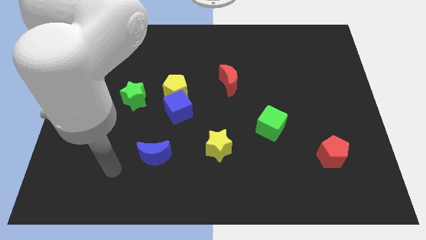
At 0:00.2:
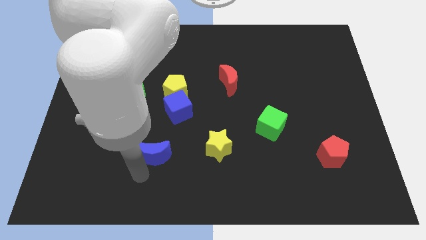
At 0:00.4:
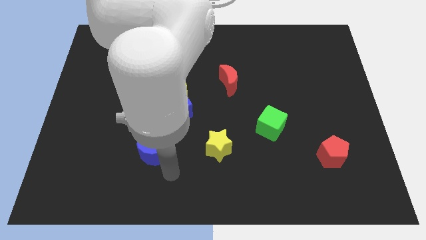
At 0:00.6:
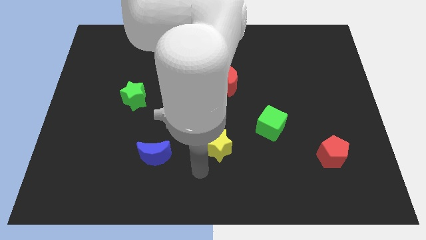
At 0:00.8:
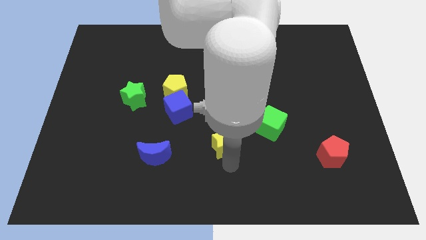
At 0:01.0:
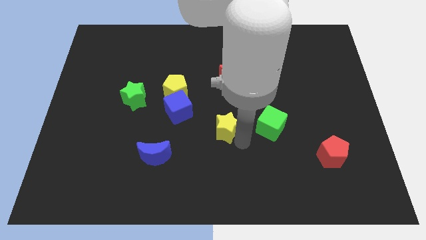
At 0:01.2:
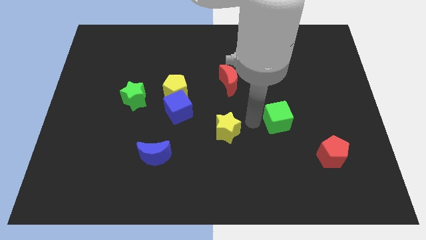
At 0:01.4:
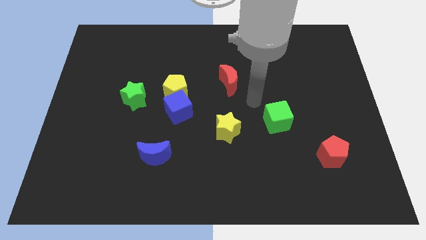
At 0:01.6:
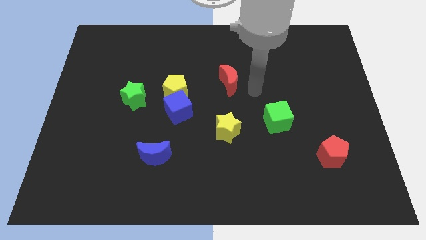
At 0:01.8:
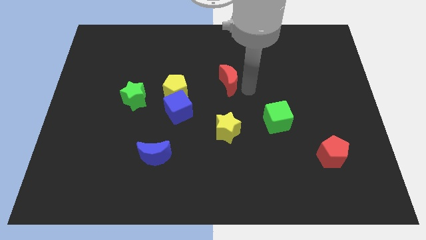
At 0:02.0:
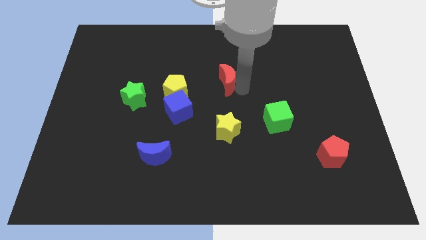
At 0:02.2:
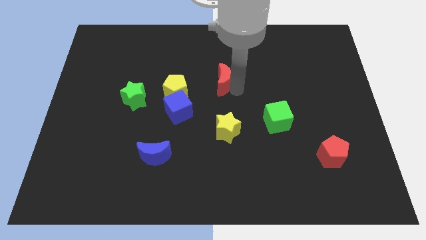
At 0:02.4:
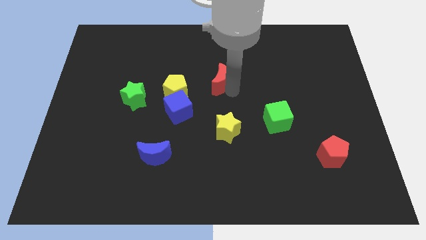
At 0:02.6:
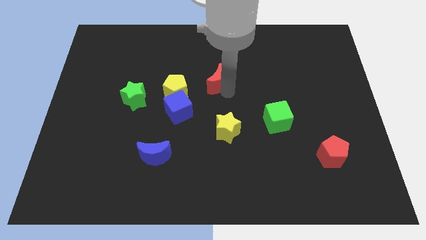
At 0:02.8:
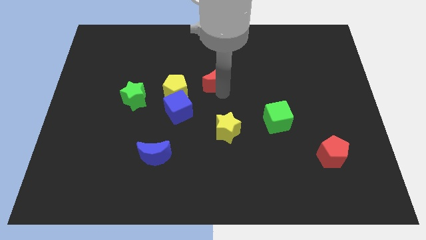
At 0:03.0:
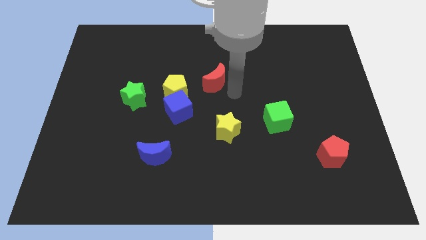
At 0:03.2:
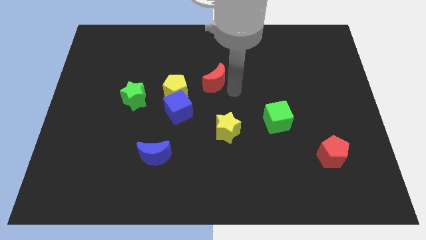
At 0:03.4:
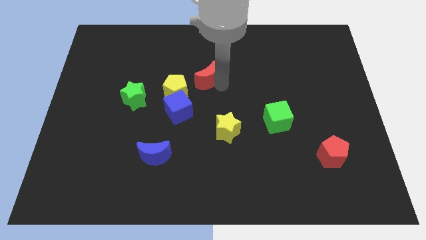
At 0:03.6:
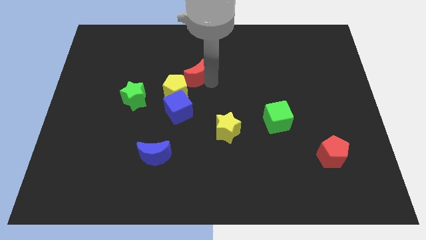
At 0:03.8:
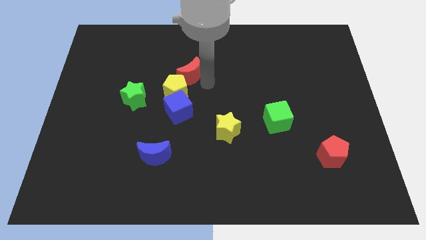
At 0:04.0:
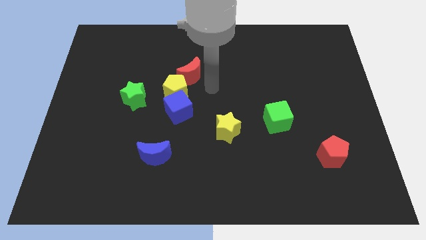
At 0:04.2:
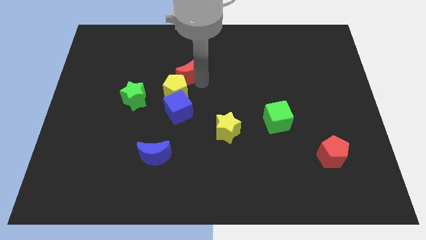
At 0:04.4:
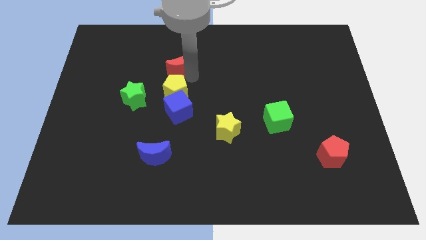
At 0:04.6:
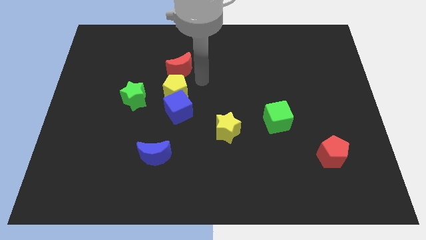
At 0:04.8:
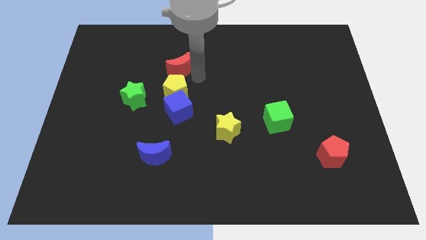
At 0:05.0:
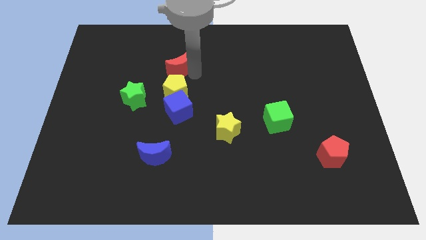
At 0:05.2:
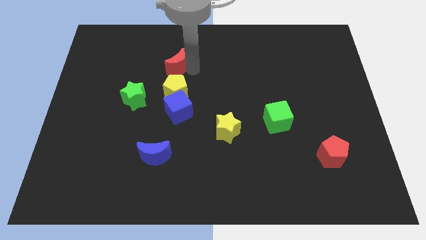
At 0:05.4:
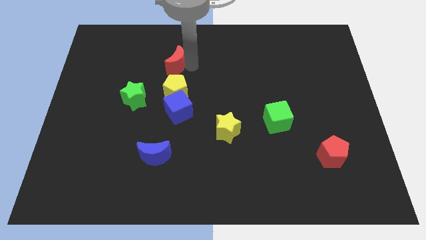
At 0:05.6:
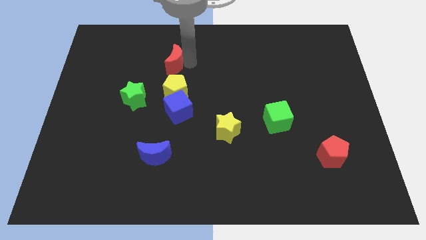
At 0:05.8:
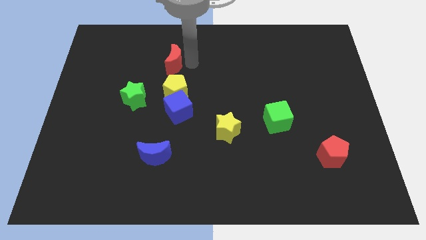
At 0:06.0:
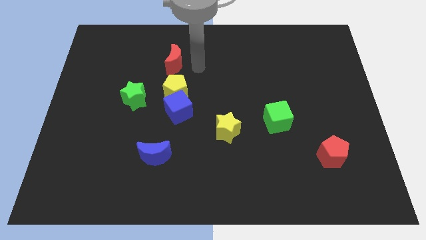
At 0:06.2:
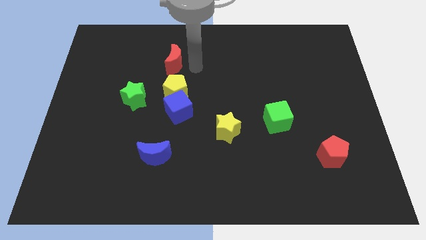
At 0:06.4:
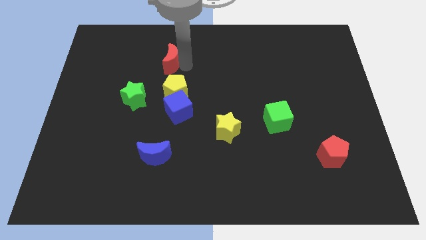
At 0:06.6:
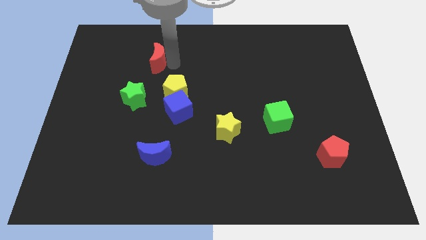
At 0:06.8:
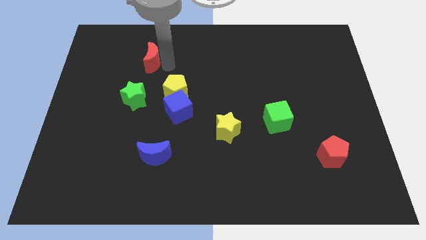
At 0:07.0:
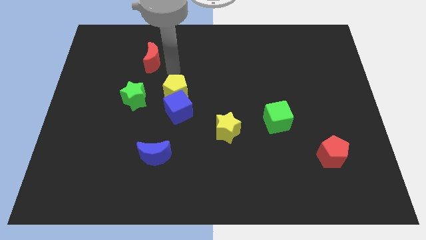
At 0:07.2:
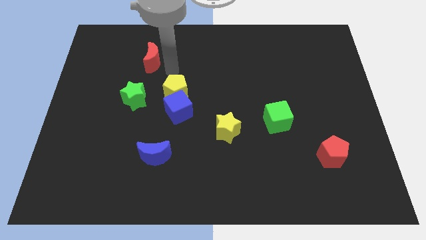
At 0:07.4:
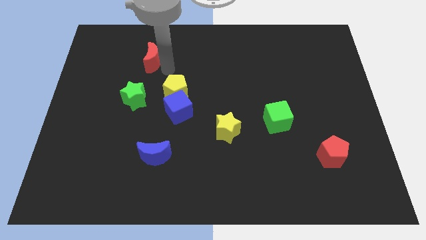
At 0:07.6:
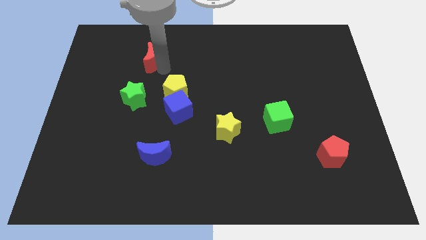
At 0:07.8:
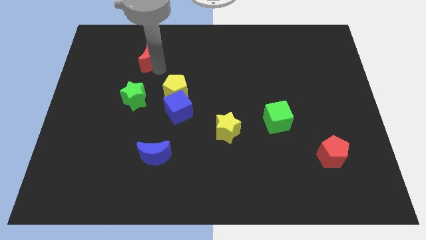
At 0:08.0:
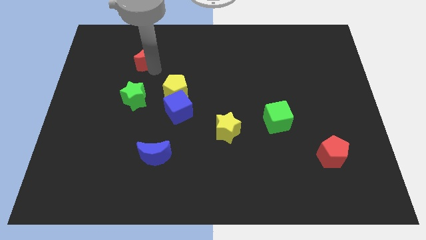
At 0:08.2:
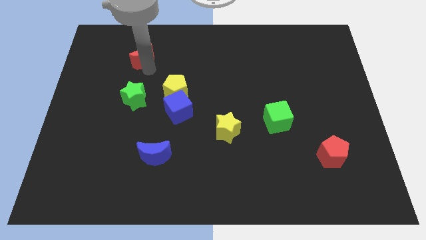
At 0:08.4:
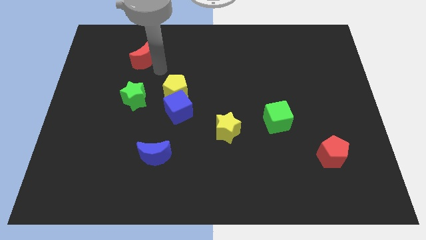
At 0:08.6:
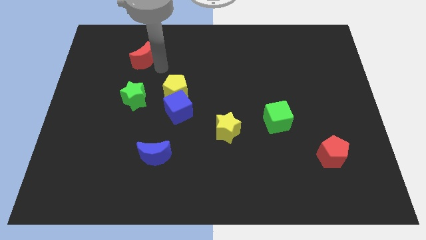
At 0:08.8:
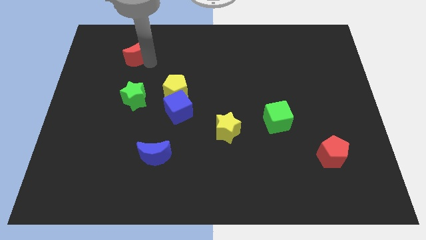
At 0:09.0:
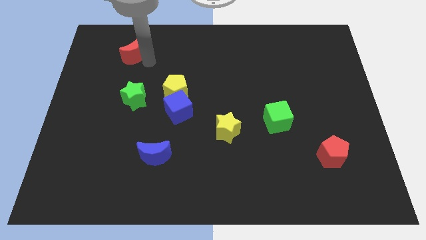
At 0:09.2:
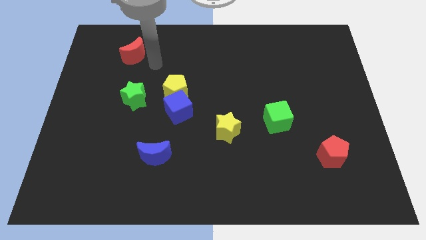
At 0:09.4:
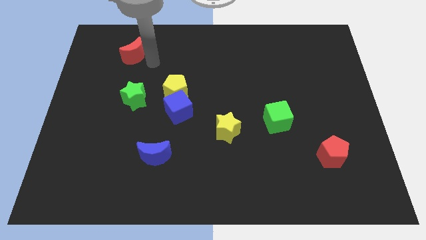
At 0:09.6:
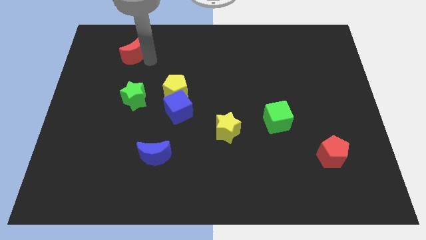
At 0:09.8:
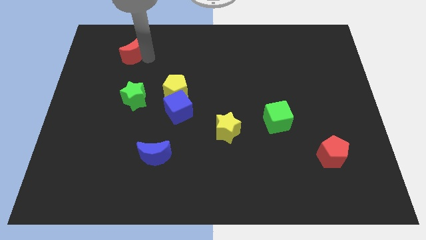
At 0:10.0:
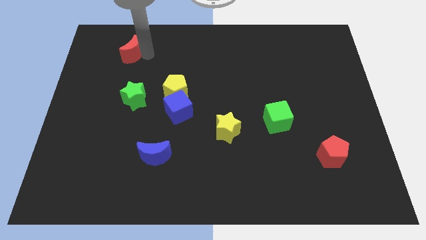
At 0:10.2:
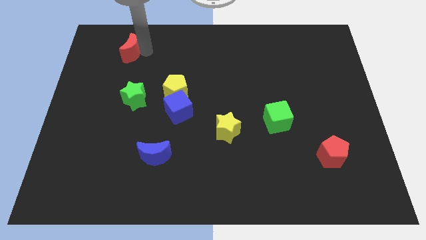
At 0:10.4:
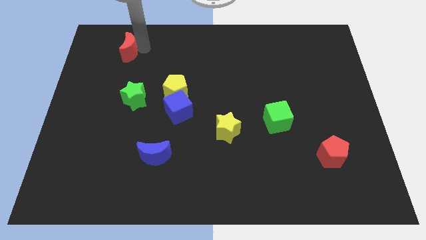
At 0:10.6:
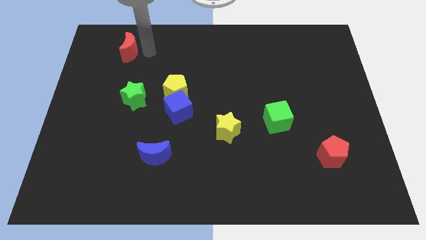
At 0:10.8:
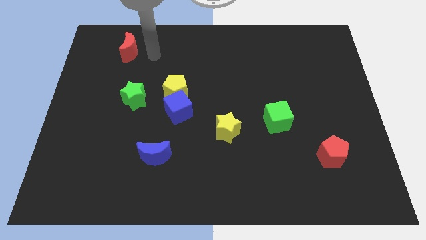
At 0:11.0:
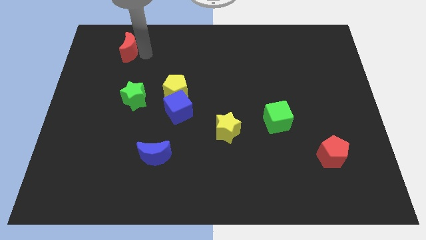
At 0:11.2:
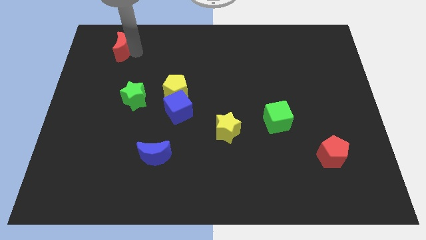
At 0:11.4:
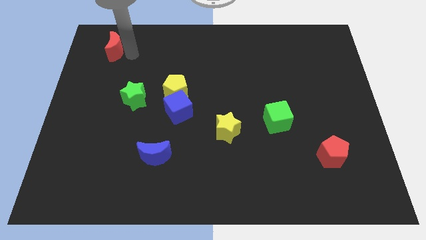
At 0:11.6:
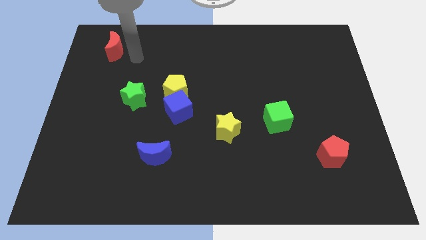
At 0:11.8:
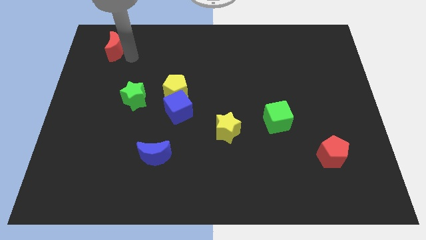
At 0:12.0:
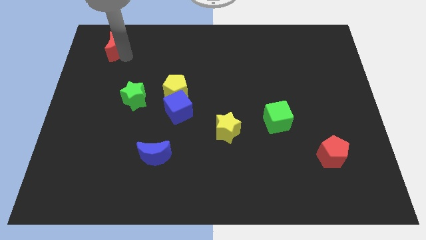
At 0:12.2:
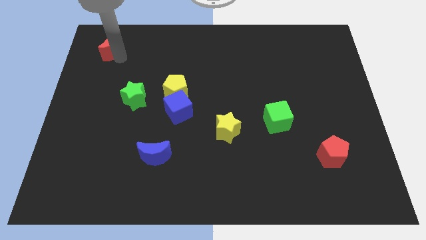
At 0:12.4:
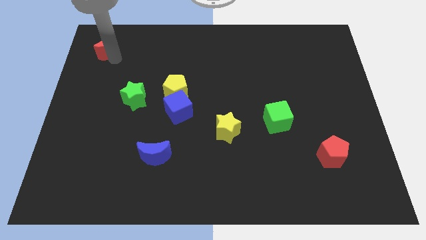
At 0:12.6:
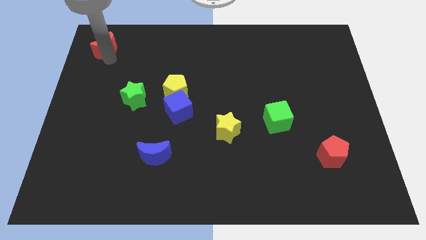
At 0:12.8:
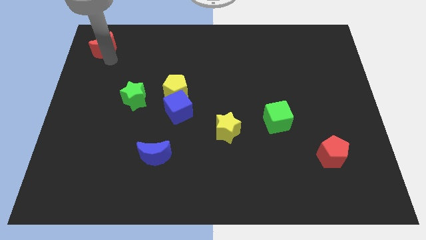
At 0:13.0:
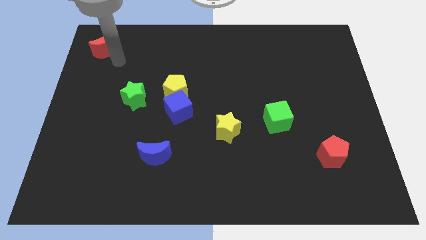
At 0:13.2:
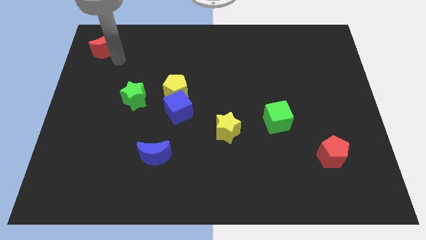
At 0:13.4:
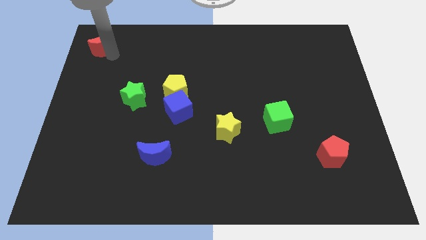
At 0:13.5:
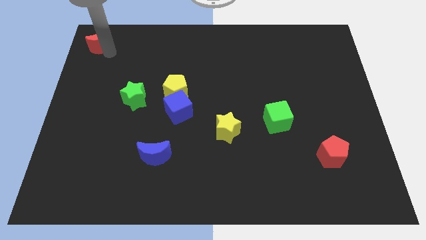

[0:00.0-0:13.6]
slide the red moon to the upper left corner

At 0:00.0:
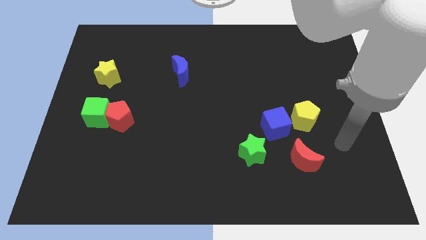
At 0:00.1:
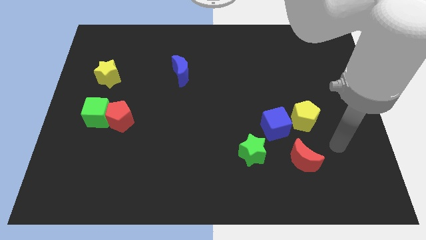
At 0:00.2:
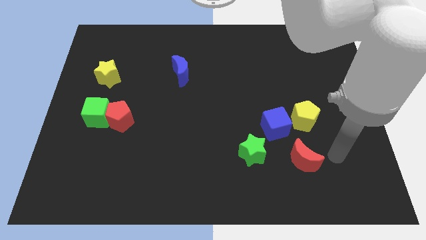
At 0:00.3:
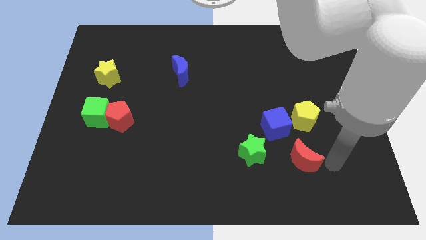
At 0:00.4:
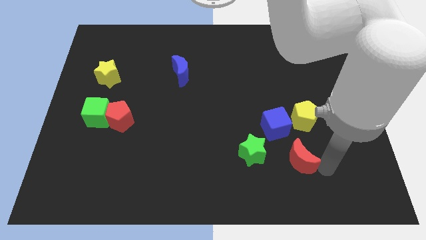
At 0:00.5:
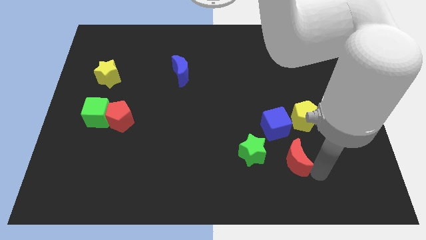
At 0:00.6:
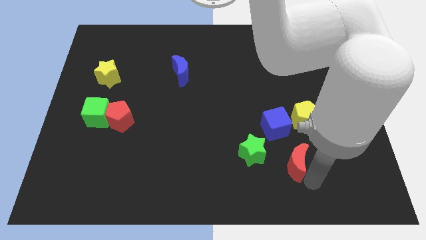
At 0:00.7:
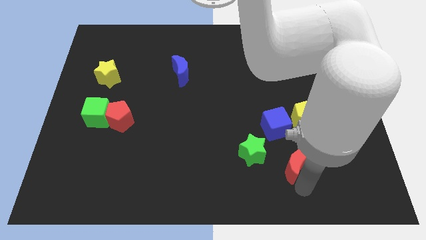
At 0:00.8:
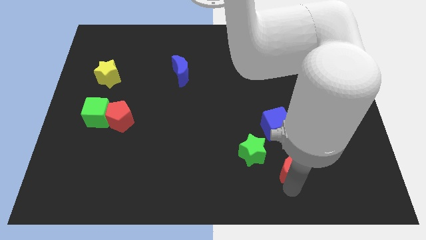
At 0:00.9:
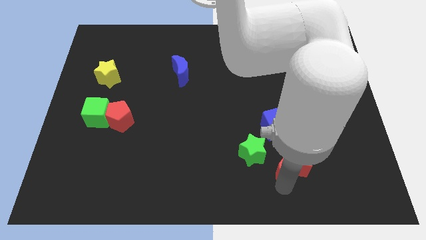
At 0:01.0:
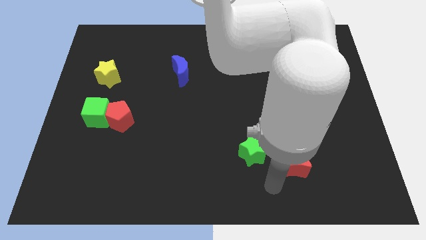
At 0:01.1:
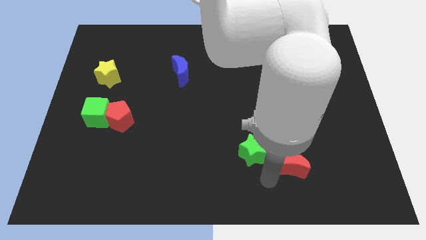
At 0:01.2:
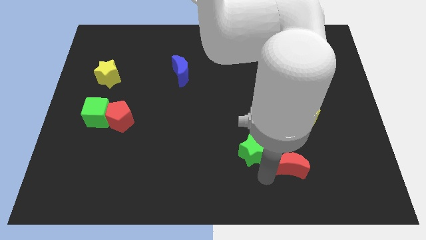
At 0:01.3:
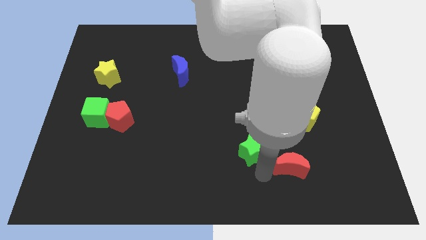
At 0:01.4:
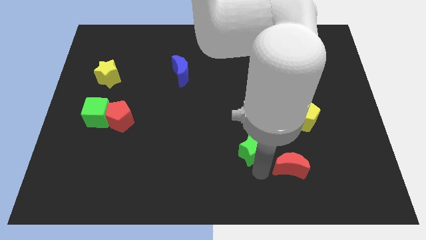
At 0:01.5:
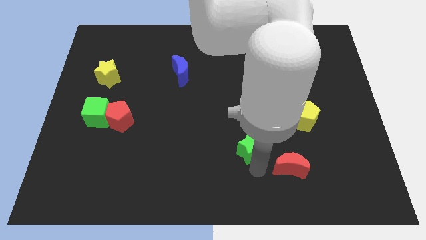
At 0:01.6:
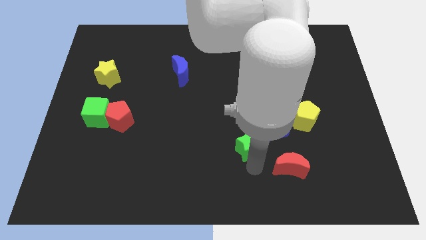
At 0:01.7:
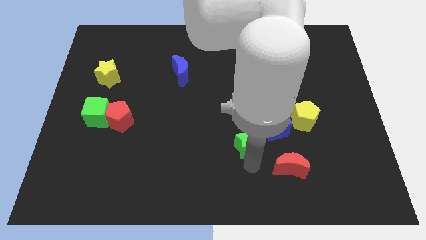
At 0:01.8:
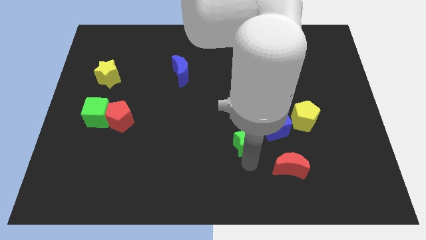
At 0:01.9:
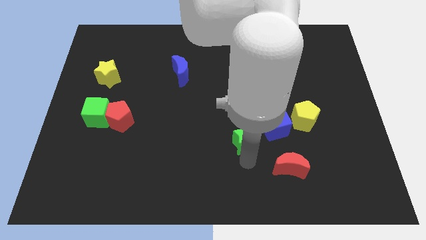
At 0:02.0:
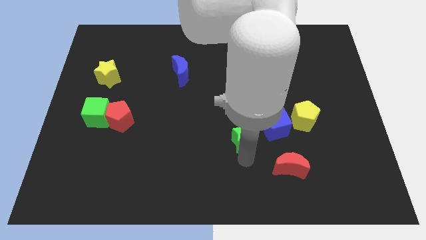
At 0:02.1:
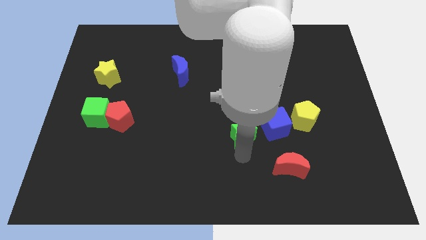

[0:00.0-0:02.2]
put the green star to the center
